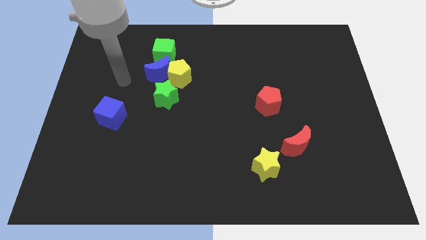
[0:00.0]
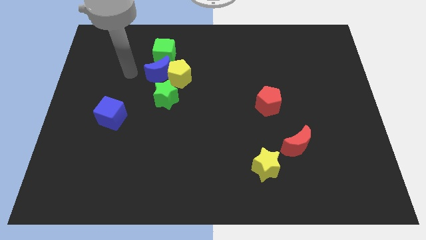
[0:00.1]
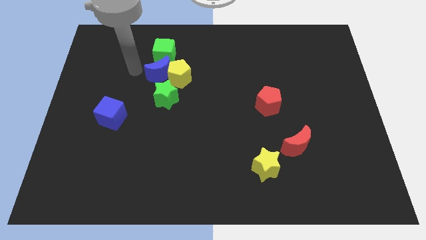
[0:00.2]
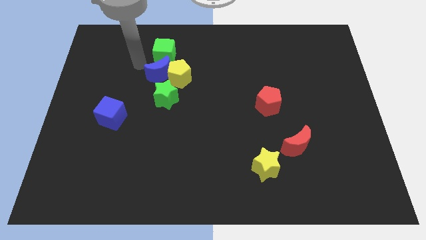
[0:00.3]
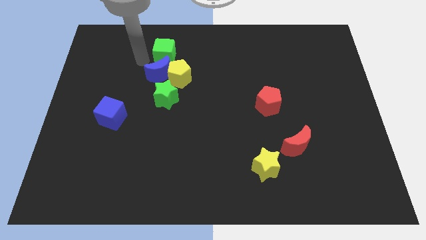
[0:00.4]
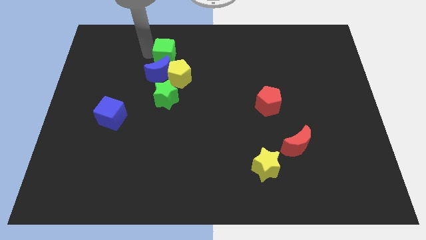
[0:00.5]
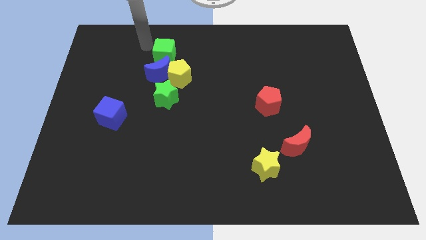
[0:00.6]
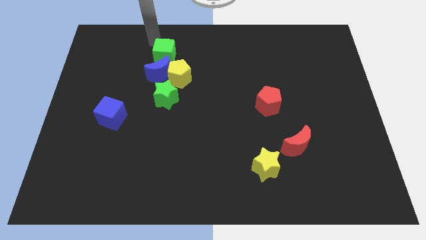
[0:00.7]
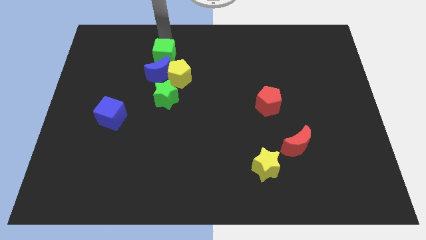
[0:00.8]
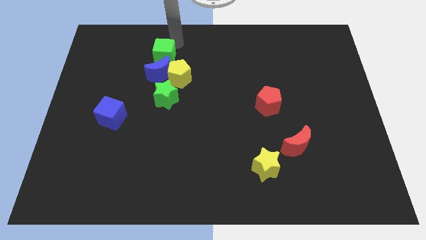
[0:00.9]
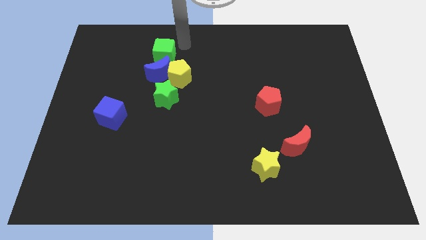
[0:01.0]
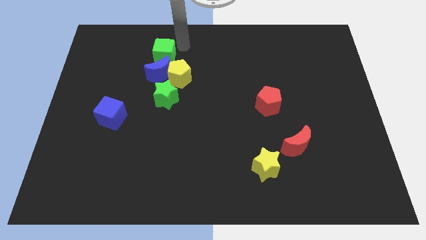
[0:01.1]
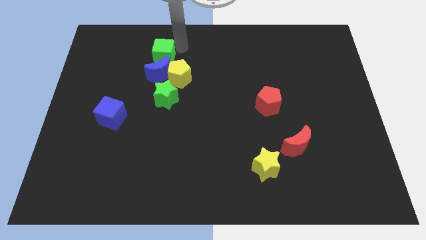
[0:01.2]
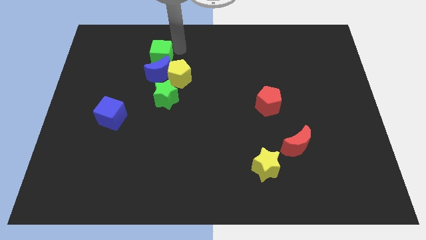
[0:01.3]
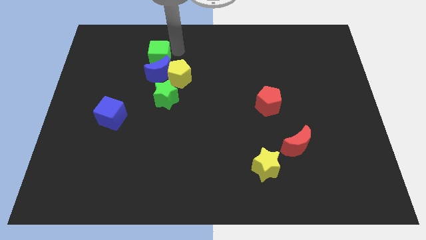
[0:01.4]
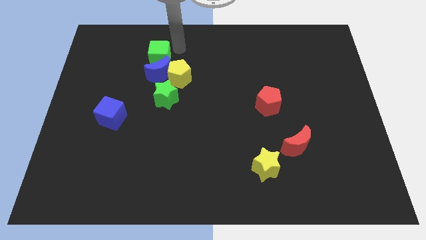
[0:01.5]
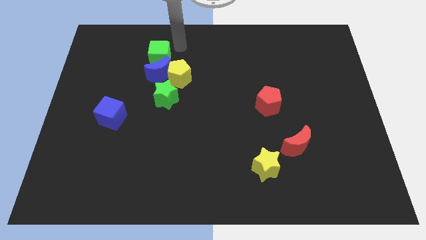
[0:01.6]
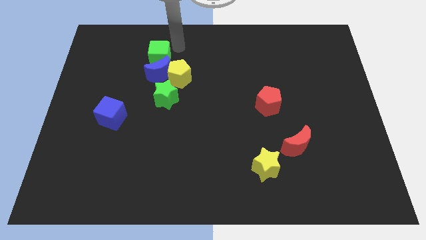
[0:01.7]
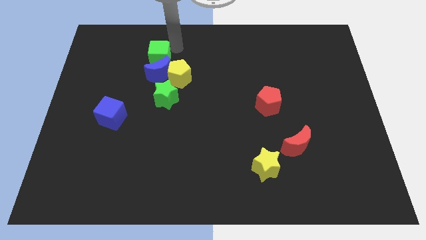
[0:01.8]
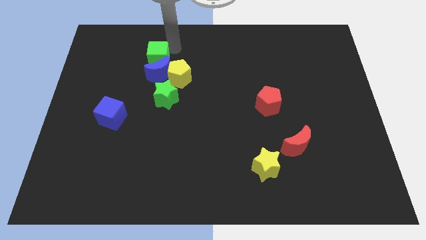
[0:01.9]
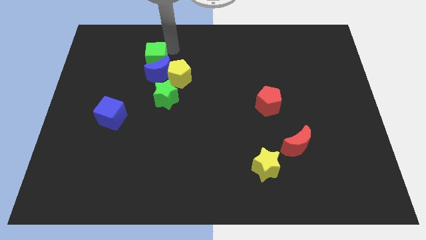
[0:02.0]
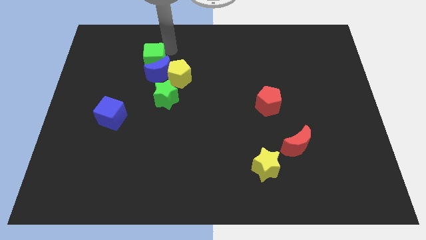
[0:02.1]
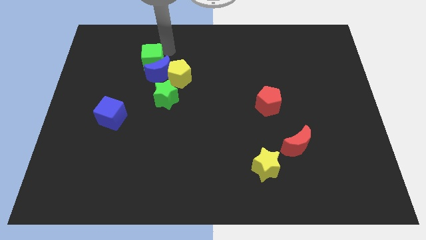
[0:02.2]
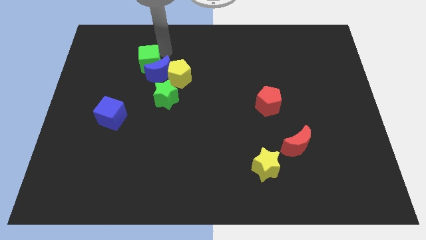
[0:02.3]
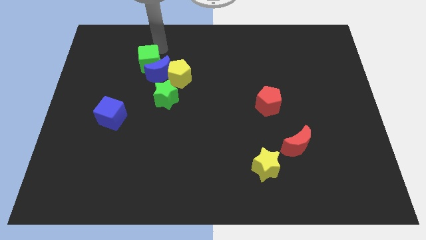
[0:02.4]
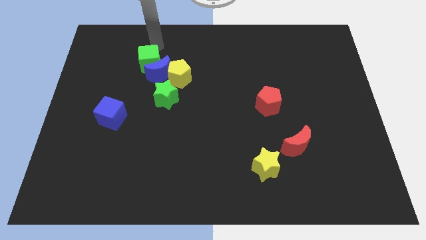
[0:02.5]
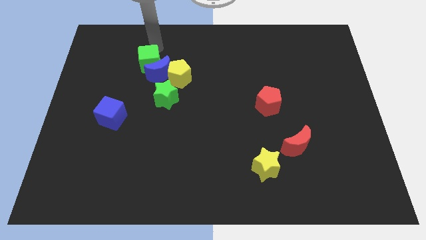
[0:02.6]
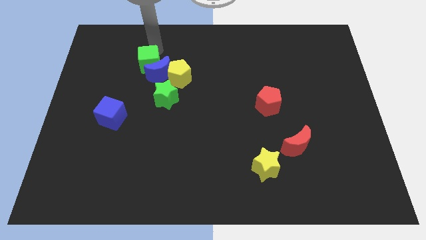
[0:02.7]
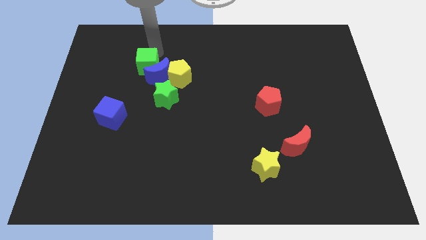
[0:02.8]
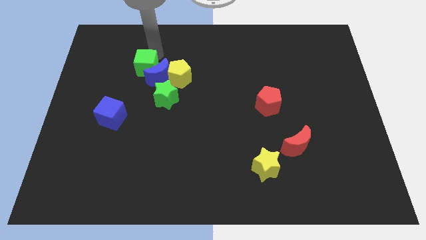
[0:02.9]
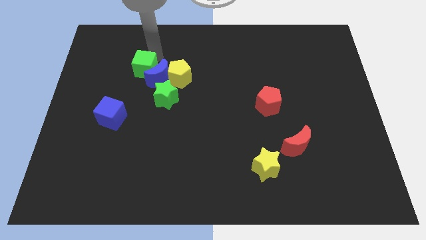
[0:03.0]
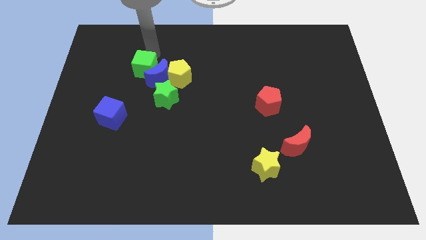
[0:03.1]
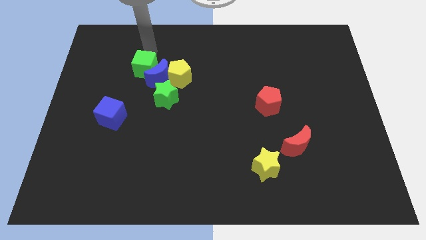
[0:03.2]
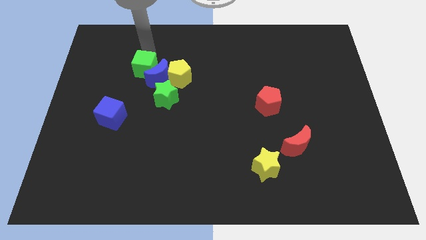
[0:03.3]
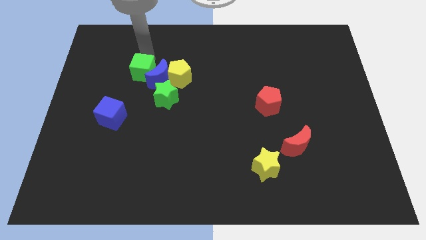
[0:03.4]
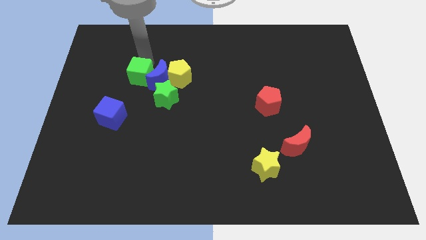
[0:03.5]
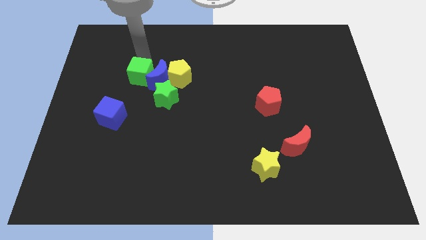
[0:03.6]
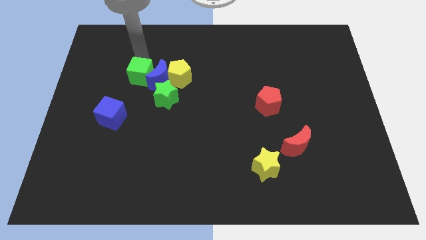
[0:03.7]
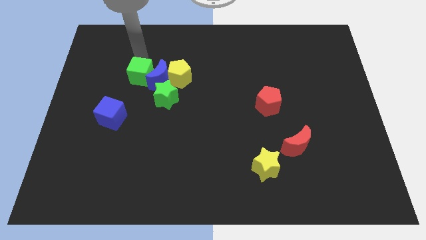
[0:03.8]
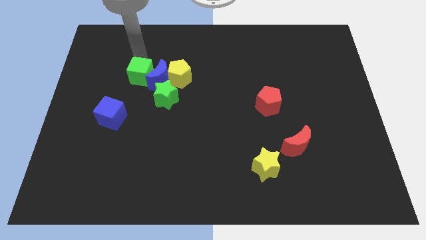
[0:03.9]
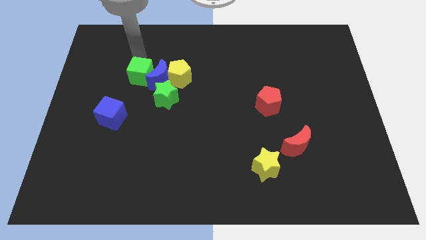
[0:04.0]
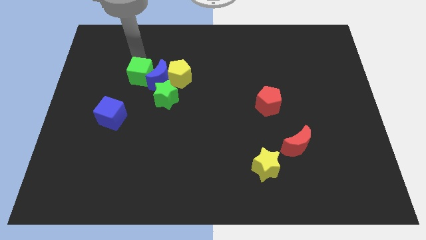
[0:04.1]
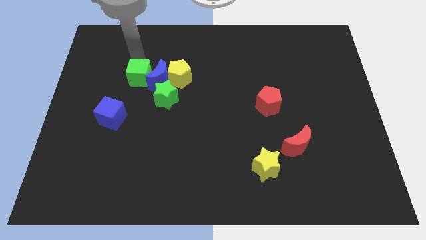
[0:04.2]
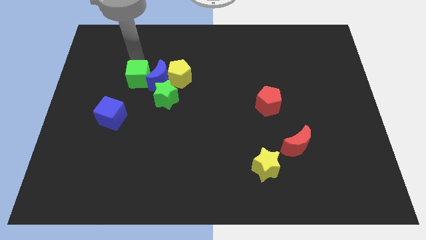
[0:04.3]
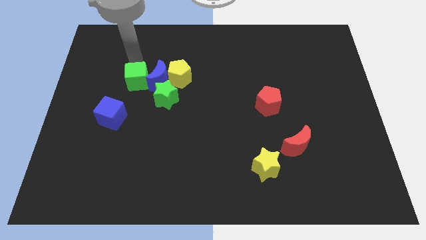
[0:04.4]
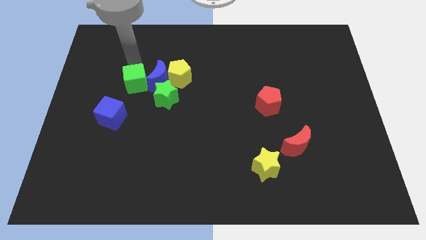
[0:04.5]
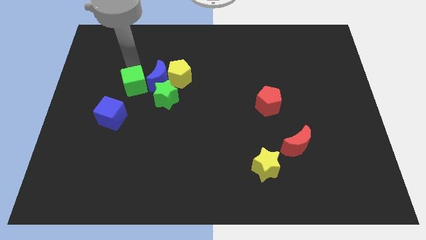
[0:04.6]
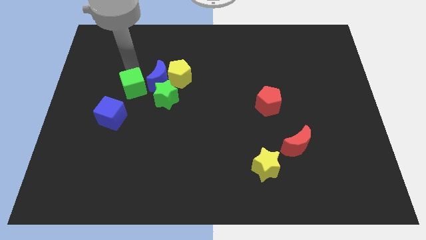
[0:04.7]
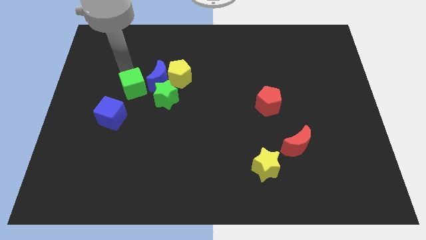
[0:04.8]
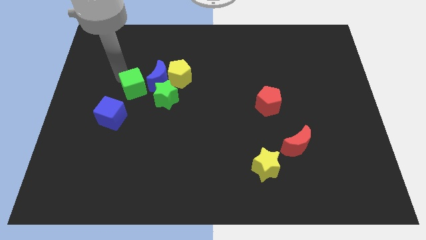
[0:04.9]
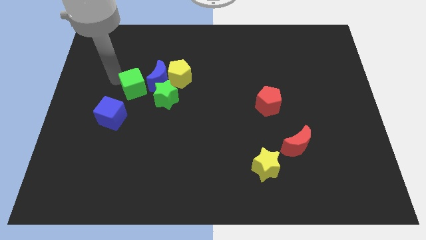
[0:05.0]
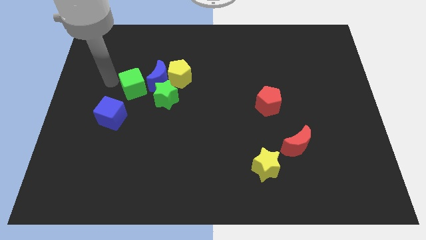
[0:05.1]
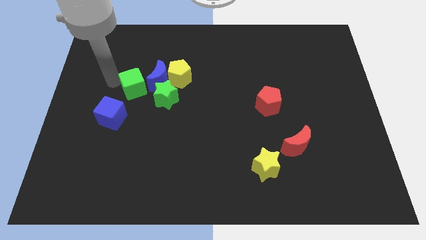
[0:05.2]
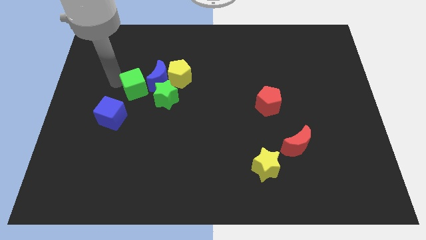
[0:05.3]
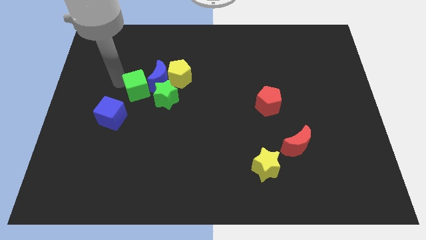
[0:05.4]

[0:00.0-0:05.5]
push the green cube diagonally down and to the left of the yellow pentagon

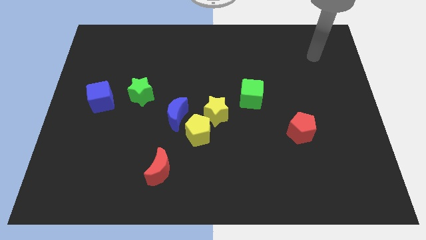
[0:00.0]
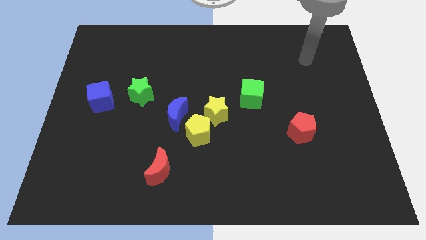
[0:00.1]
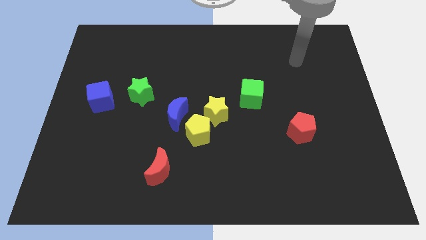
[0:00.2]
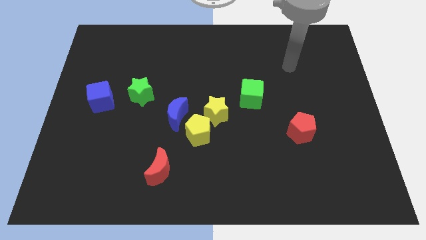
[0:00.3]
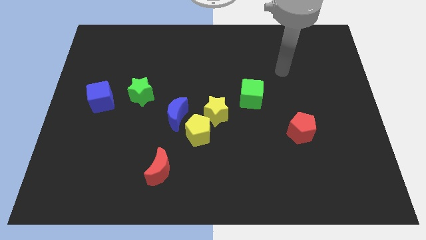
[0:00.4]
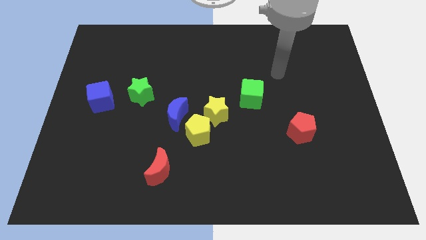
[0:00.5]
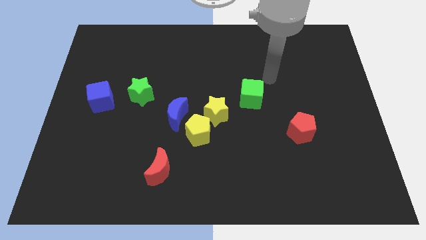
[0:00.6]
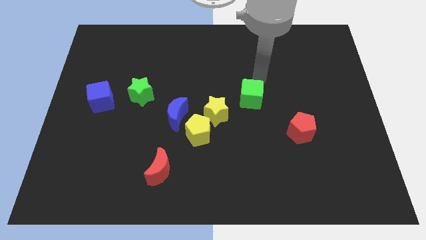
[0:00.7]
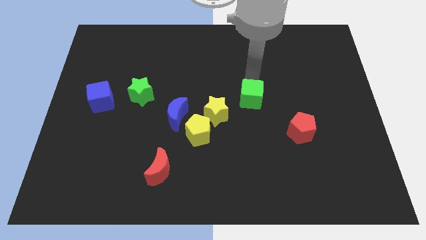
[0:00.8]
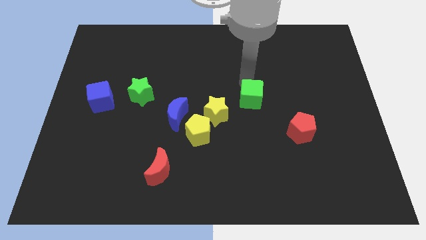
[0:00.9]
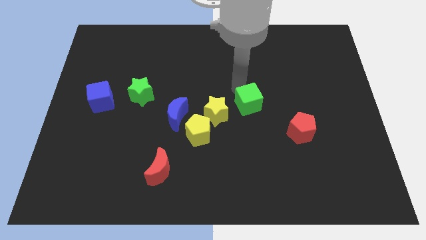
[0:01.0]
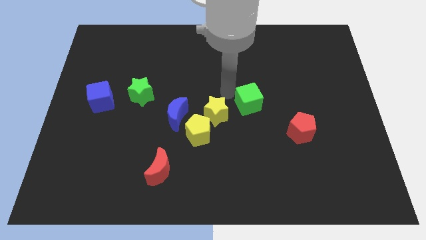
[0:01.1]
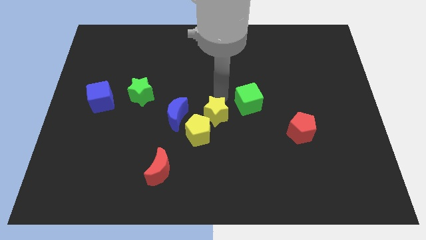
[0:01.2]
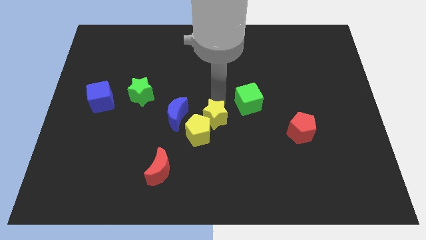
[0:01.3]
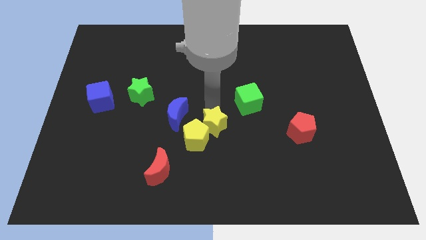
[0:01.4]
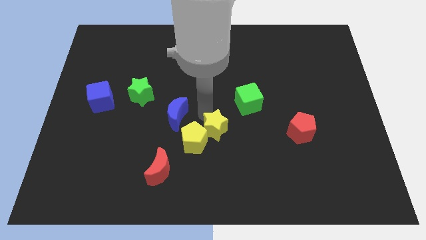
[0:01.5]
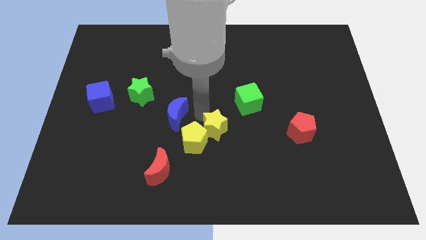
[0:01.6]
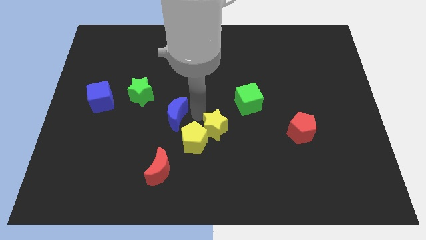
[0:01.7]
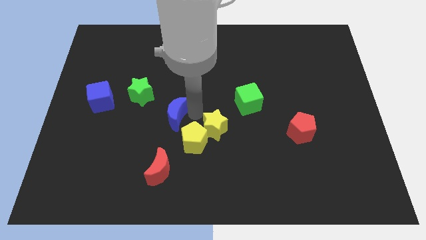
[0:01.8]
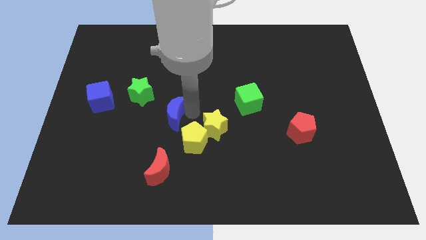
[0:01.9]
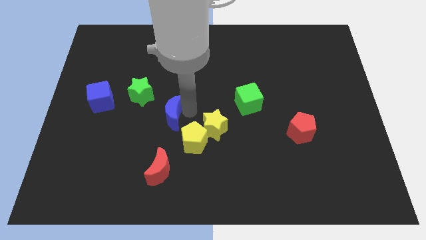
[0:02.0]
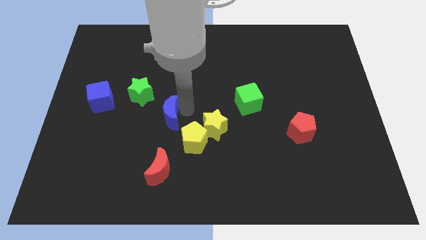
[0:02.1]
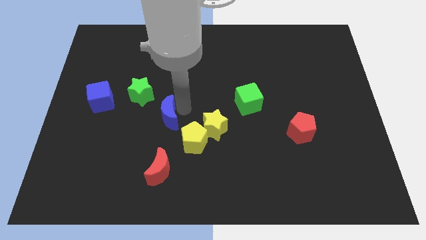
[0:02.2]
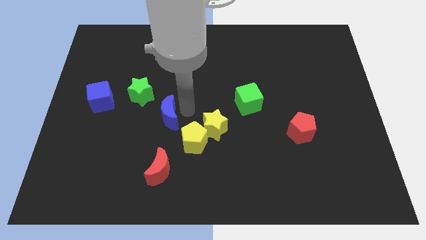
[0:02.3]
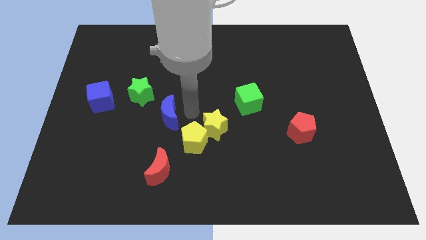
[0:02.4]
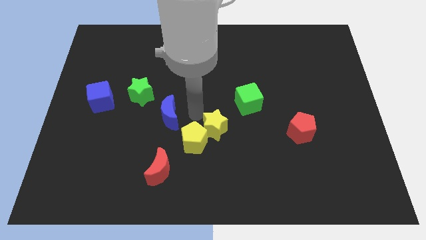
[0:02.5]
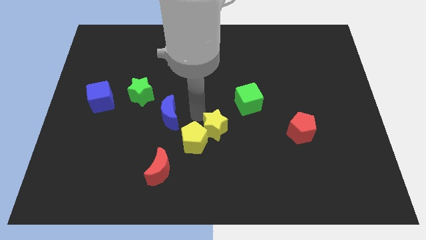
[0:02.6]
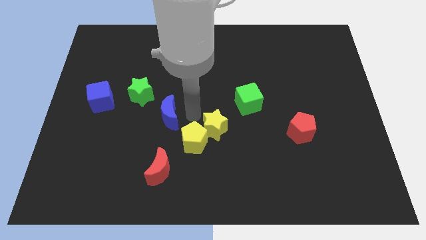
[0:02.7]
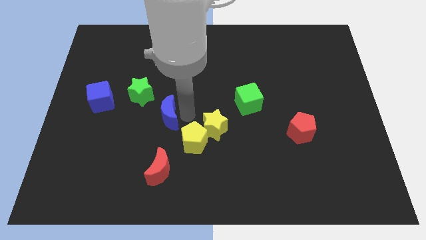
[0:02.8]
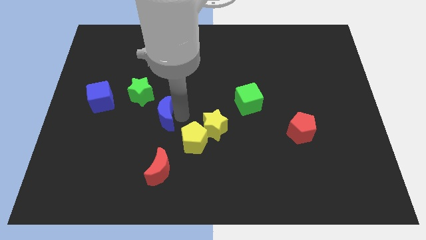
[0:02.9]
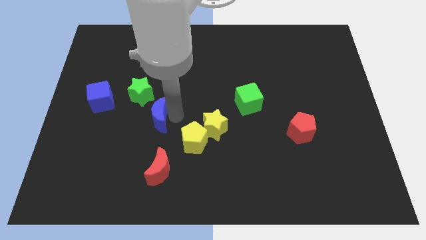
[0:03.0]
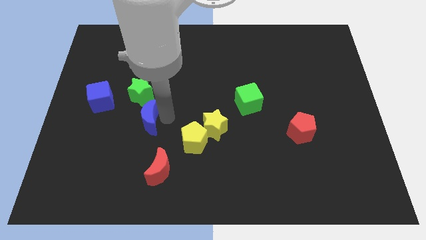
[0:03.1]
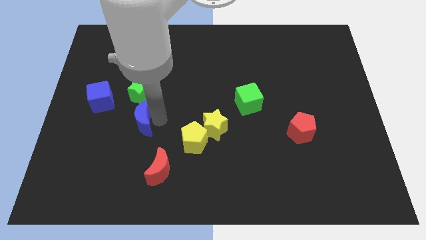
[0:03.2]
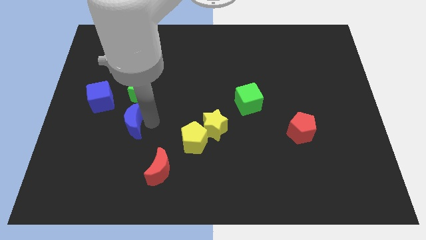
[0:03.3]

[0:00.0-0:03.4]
push the blue moon diagonally down and to the right of the blue cube

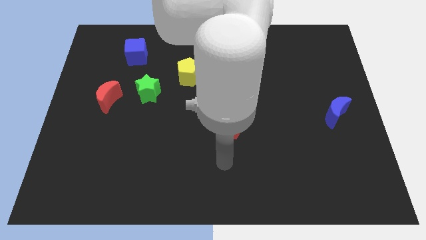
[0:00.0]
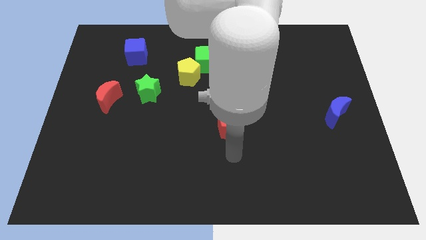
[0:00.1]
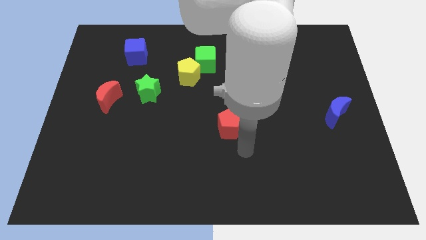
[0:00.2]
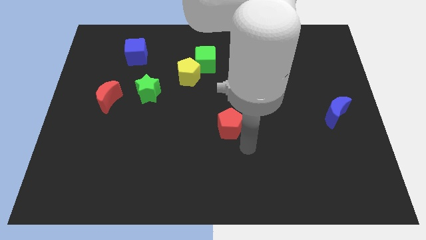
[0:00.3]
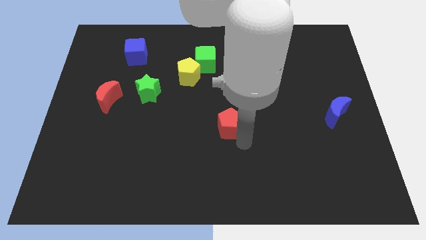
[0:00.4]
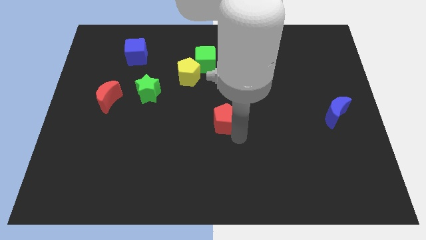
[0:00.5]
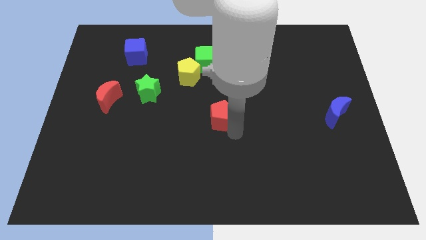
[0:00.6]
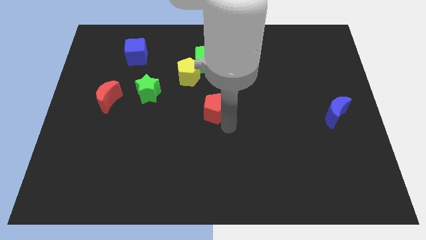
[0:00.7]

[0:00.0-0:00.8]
slide the red pentagon to the bottom of the green cube
